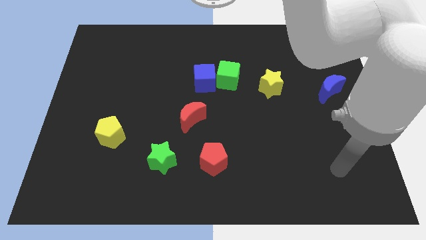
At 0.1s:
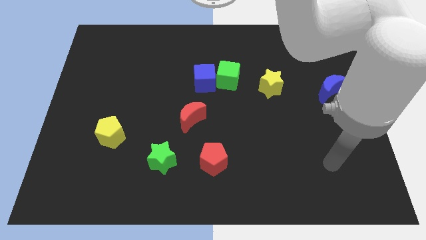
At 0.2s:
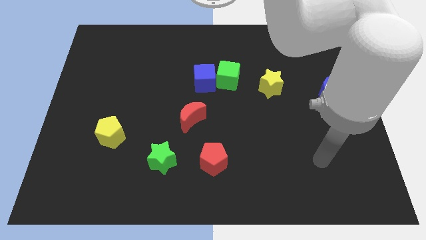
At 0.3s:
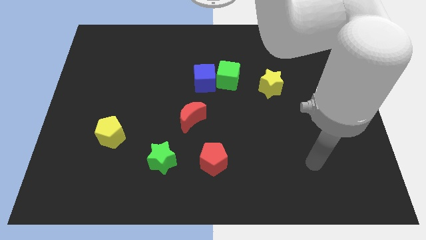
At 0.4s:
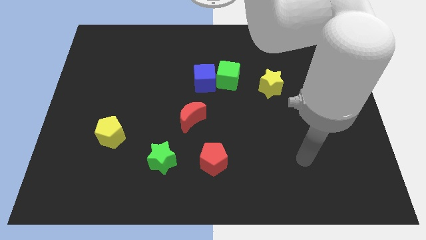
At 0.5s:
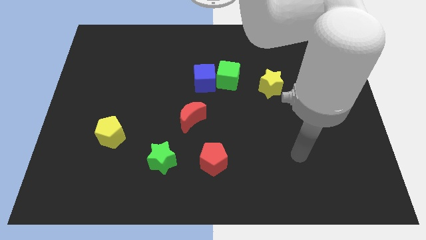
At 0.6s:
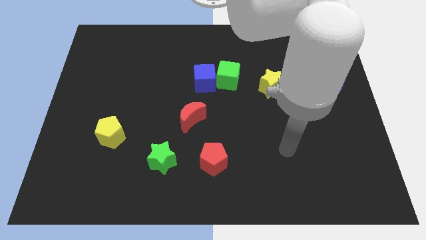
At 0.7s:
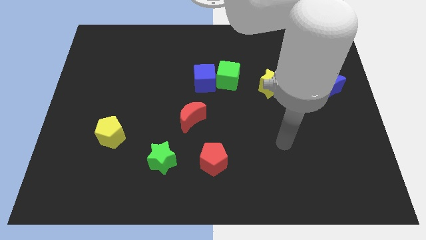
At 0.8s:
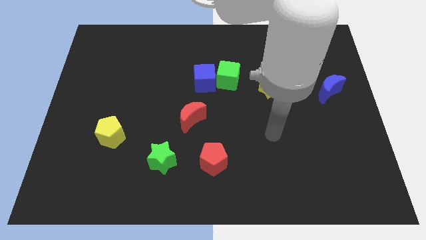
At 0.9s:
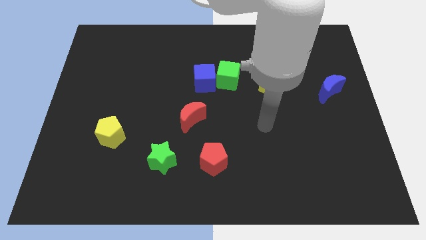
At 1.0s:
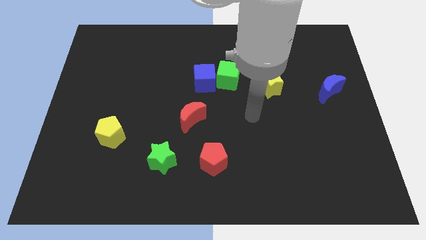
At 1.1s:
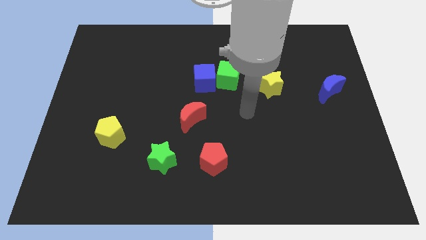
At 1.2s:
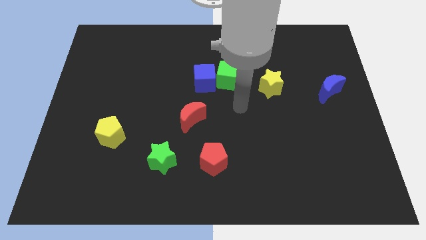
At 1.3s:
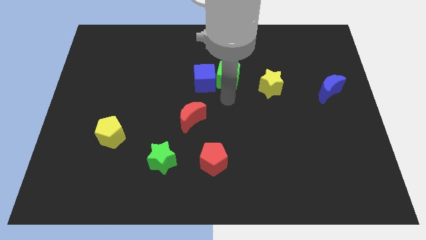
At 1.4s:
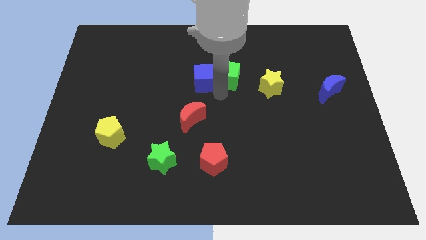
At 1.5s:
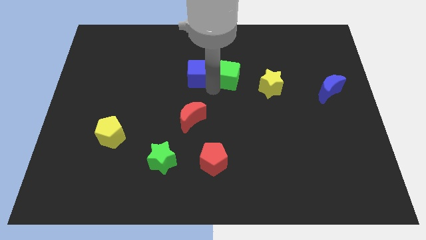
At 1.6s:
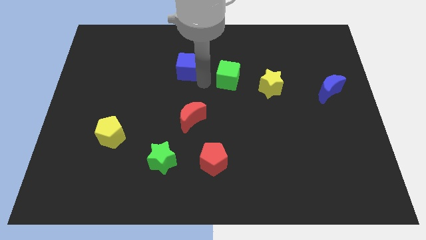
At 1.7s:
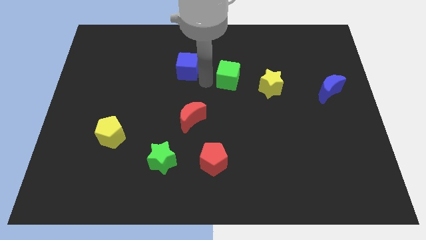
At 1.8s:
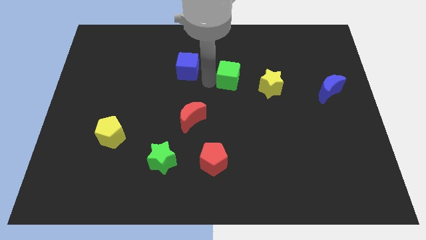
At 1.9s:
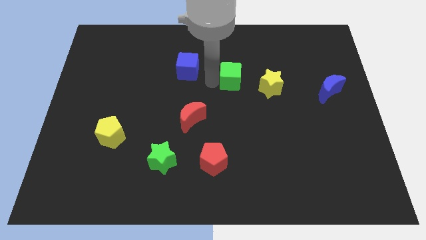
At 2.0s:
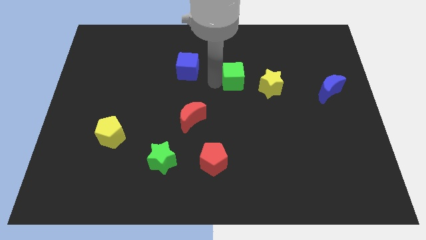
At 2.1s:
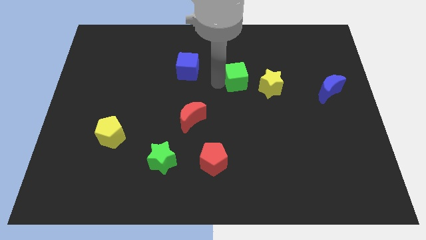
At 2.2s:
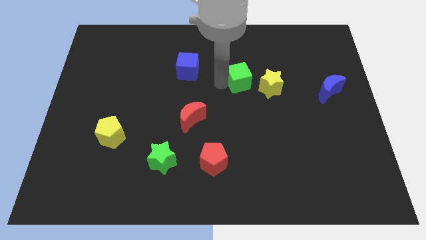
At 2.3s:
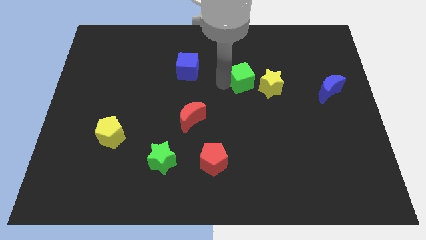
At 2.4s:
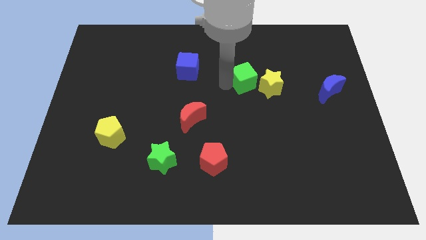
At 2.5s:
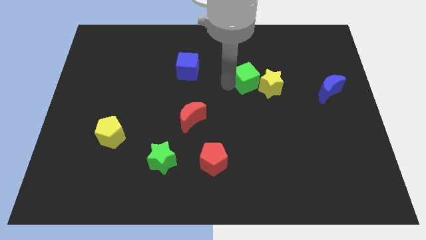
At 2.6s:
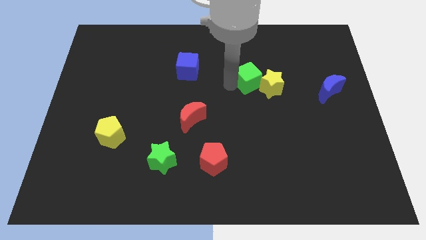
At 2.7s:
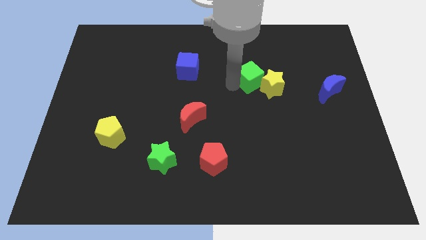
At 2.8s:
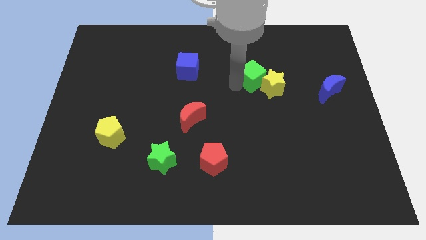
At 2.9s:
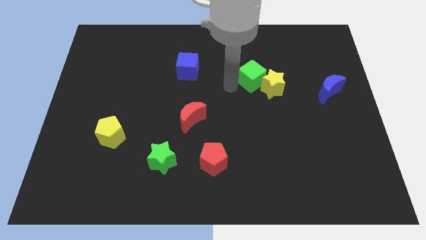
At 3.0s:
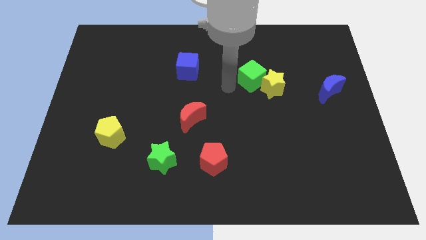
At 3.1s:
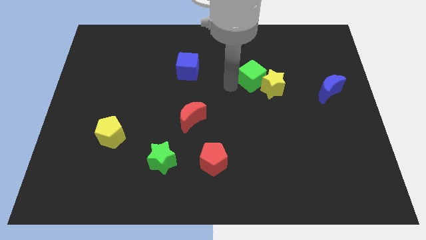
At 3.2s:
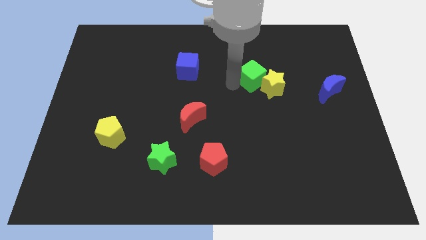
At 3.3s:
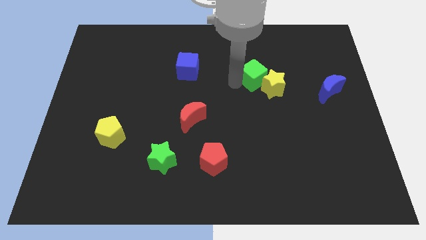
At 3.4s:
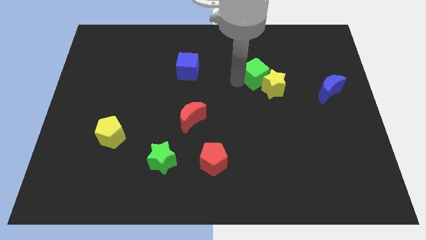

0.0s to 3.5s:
move the green cube a little bit right

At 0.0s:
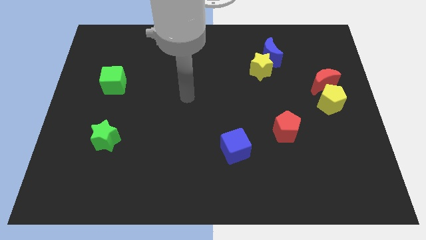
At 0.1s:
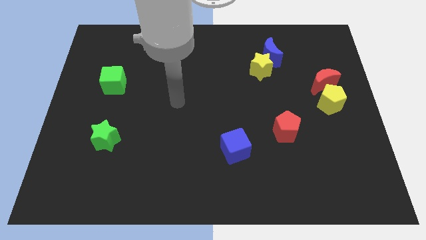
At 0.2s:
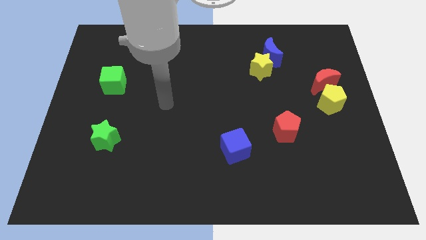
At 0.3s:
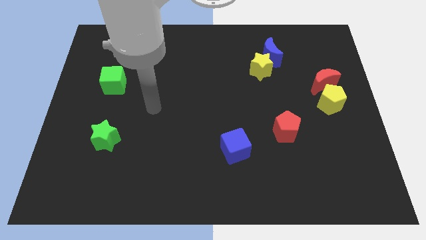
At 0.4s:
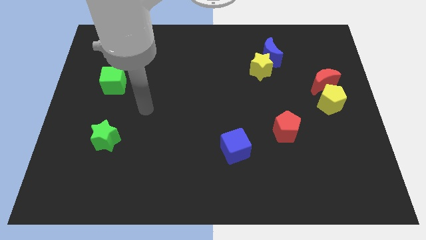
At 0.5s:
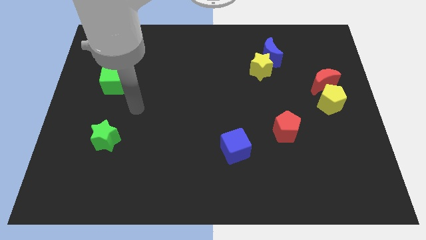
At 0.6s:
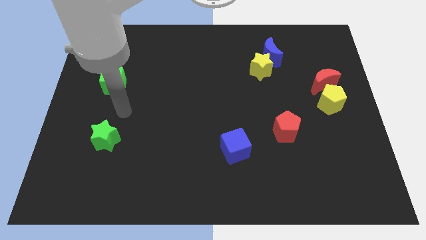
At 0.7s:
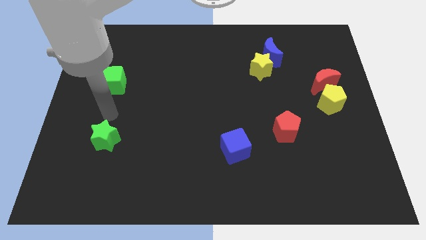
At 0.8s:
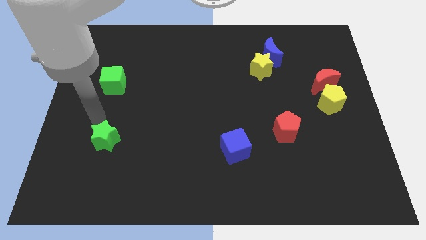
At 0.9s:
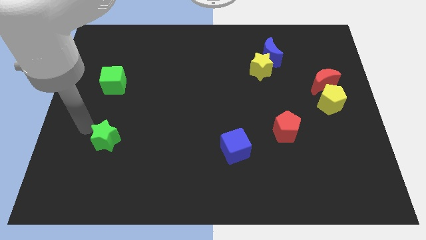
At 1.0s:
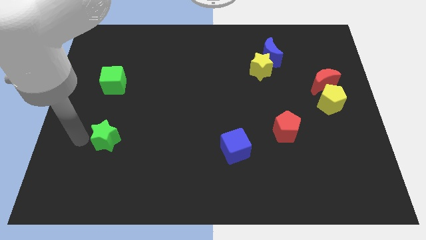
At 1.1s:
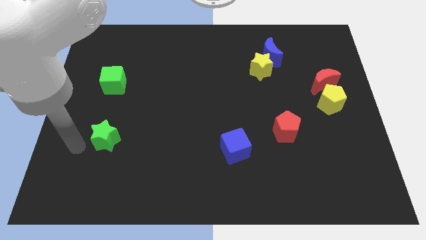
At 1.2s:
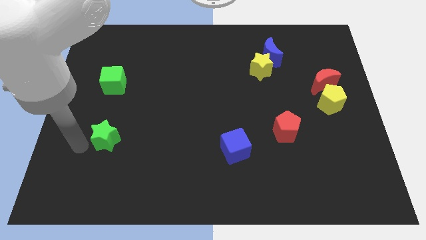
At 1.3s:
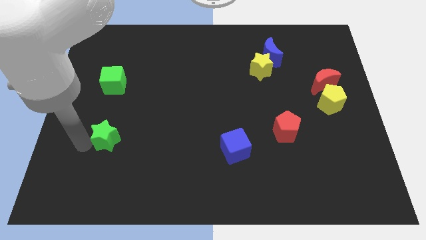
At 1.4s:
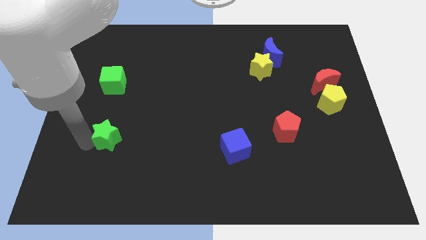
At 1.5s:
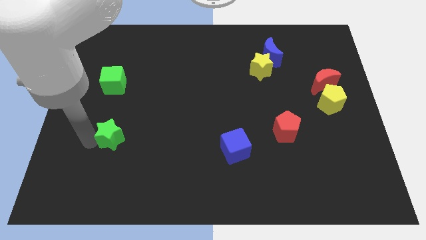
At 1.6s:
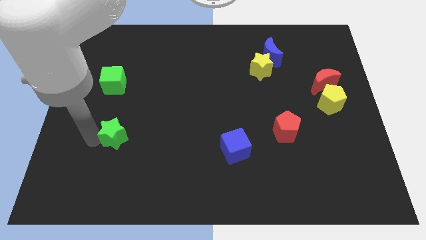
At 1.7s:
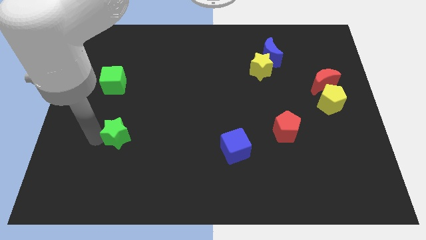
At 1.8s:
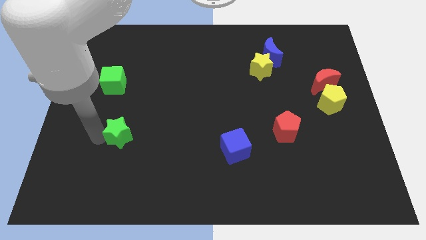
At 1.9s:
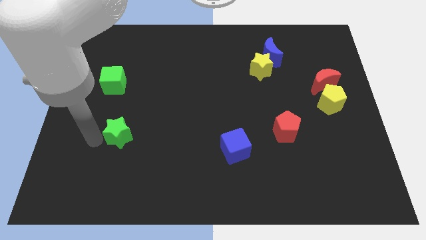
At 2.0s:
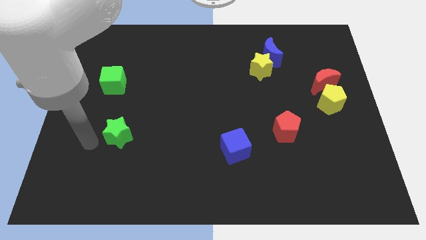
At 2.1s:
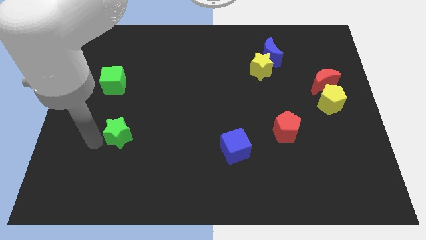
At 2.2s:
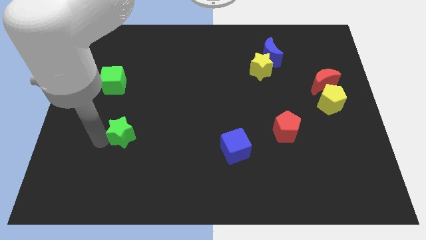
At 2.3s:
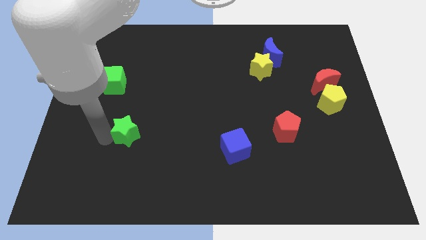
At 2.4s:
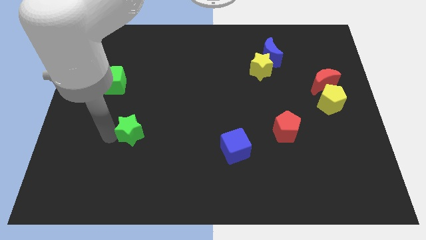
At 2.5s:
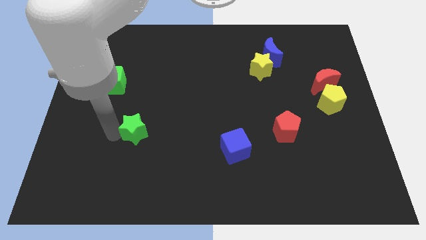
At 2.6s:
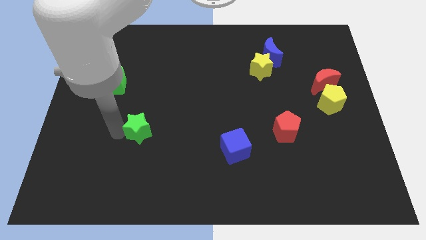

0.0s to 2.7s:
slightly push the green star to the right

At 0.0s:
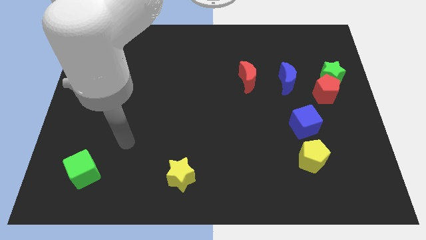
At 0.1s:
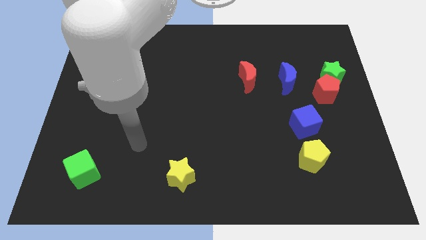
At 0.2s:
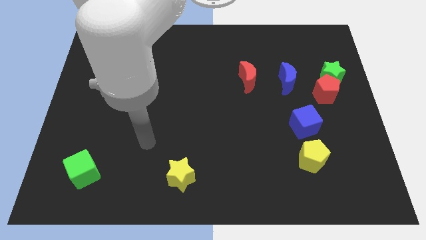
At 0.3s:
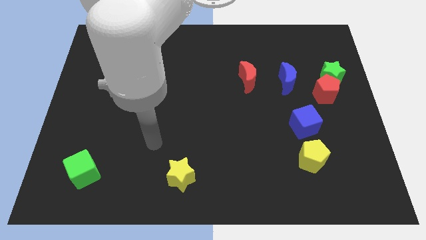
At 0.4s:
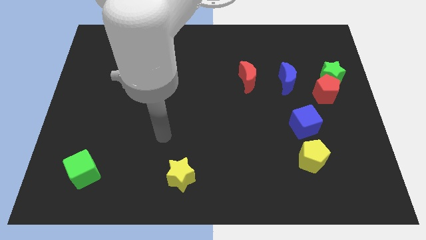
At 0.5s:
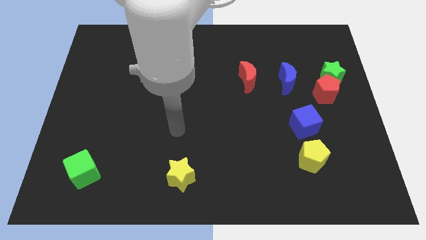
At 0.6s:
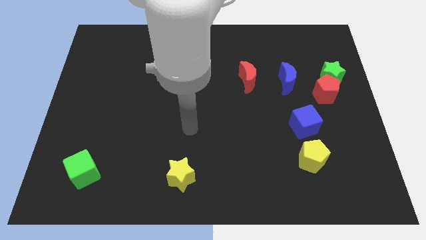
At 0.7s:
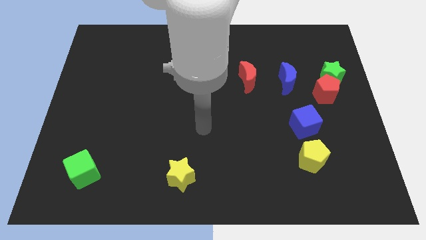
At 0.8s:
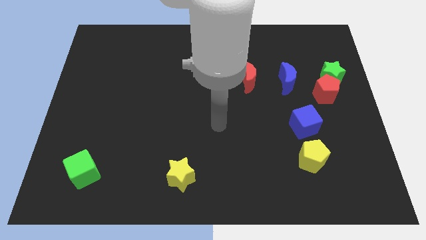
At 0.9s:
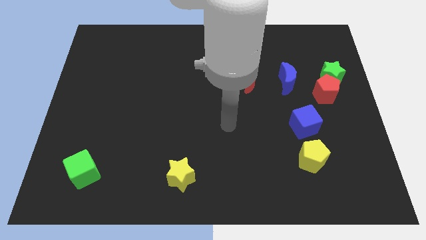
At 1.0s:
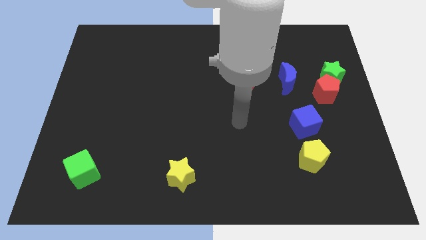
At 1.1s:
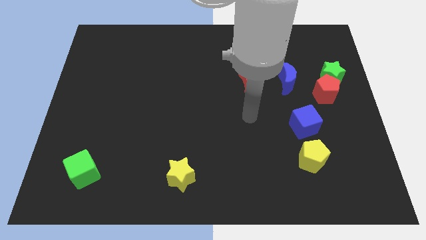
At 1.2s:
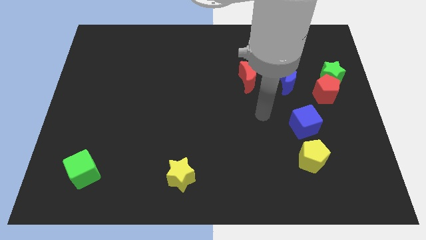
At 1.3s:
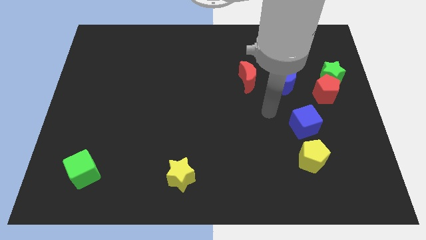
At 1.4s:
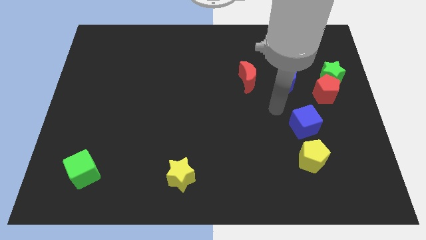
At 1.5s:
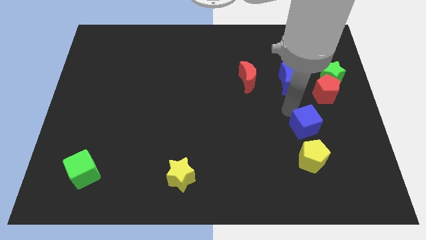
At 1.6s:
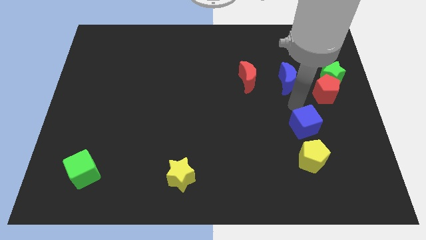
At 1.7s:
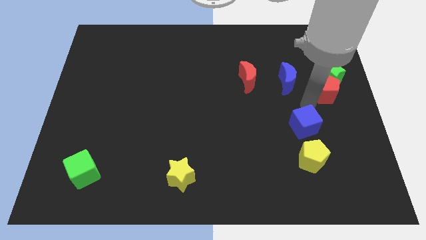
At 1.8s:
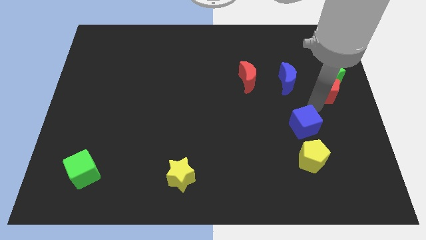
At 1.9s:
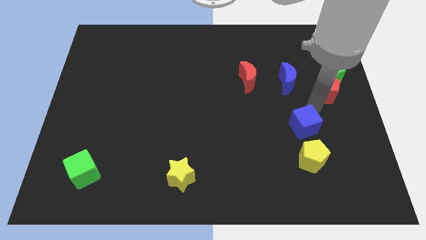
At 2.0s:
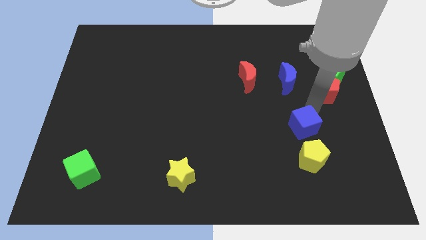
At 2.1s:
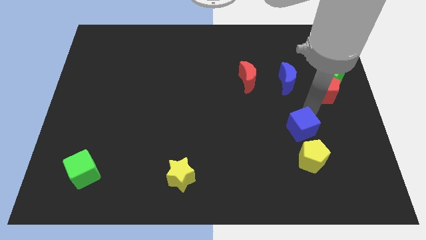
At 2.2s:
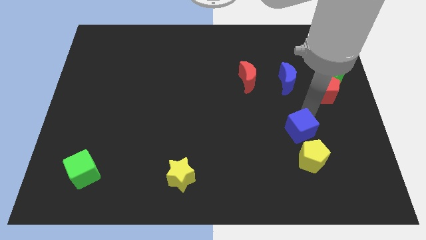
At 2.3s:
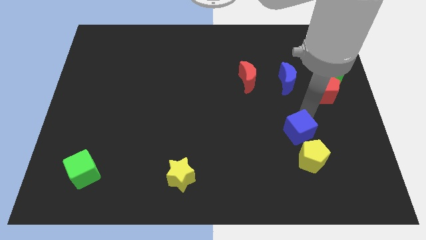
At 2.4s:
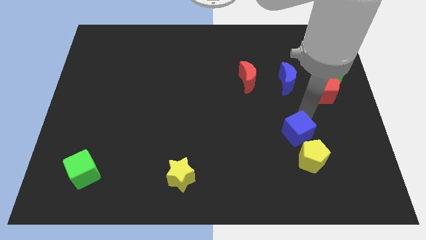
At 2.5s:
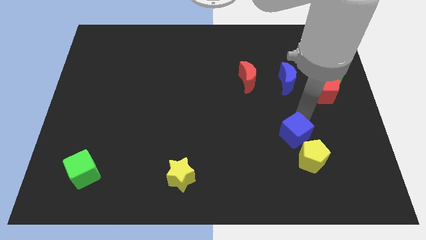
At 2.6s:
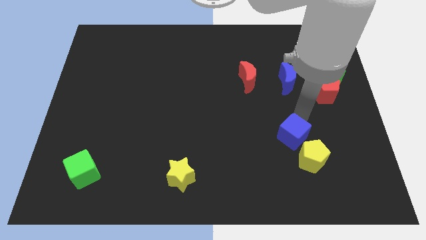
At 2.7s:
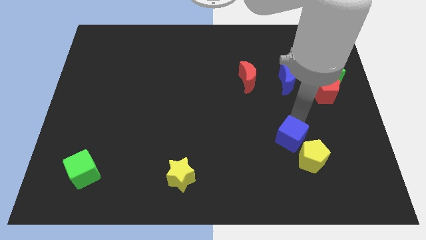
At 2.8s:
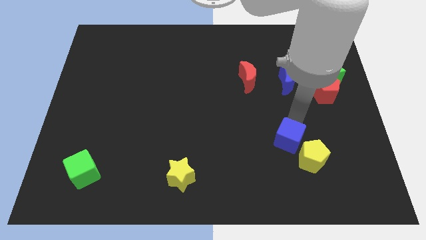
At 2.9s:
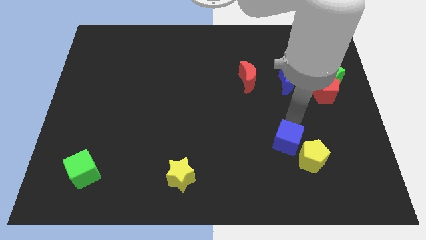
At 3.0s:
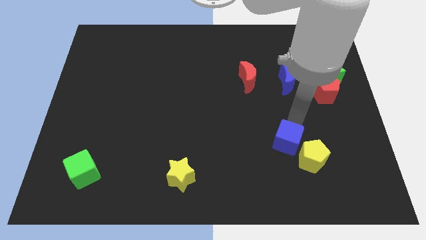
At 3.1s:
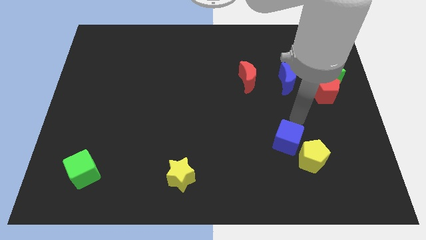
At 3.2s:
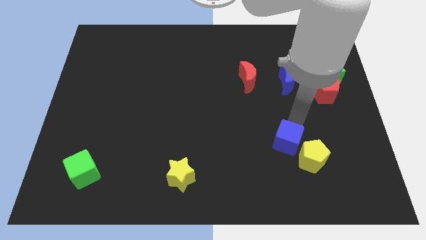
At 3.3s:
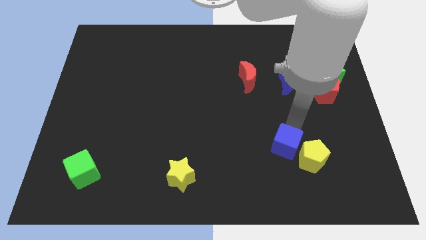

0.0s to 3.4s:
slide the blue cube down and to the left a little bit
